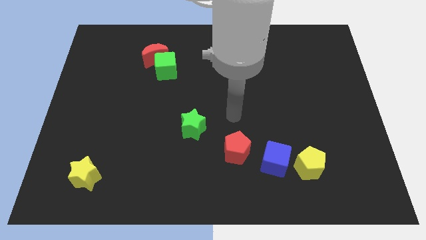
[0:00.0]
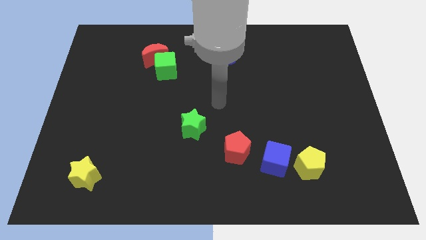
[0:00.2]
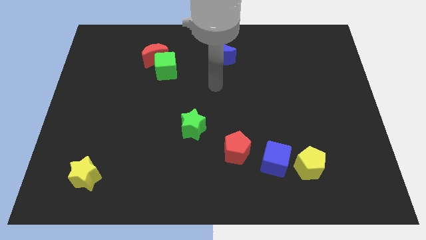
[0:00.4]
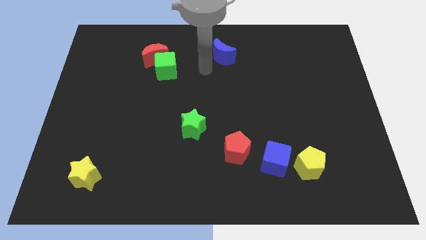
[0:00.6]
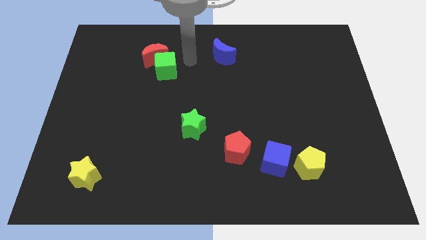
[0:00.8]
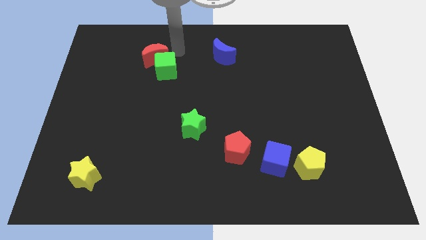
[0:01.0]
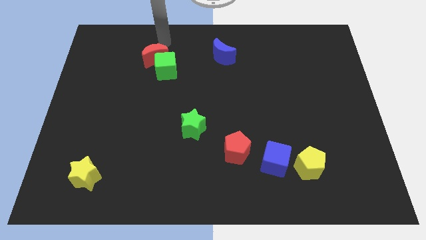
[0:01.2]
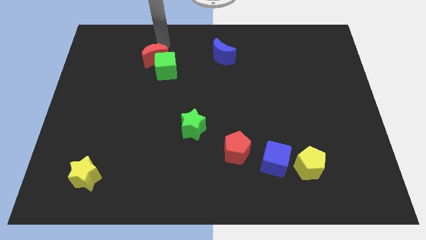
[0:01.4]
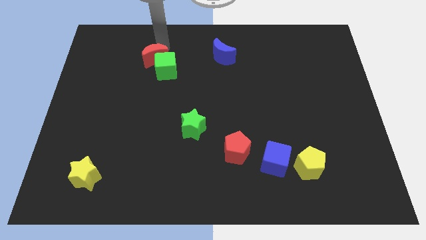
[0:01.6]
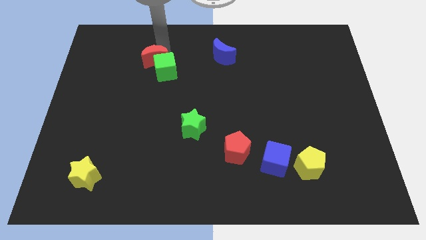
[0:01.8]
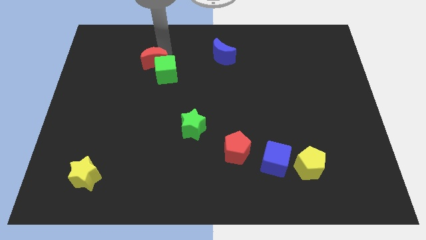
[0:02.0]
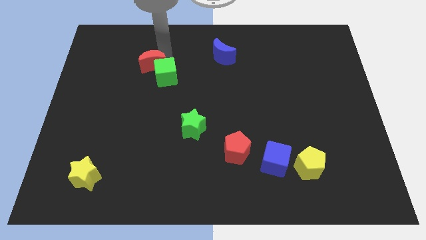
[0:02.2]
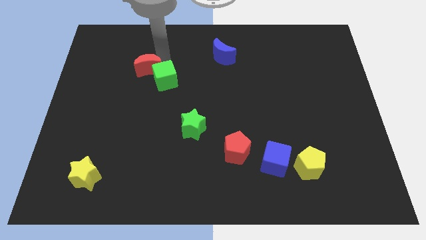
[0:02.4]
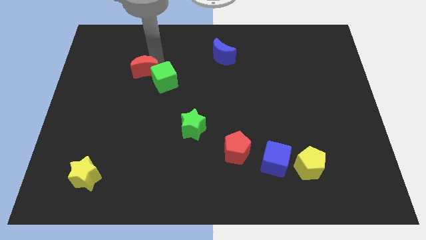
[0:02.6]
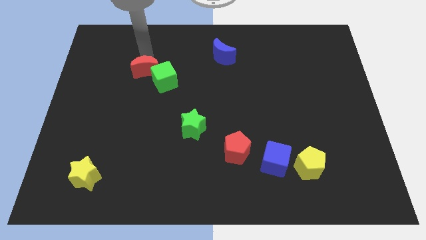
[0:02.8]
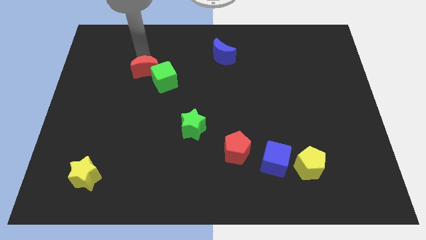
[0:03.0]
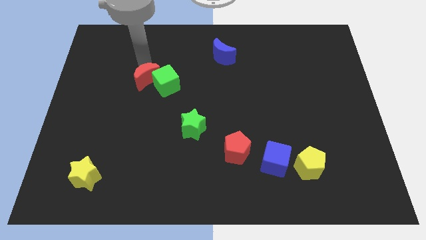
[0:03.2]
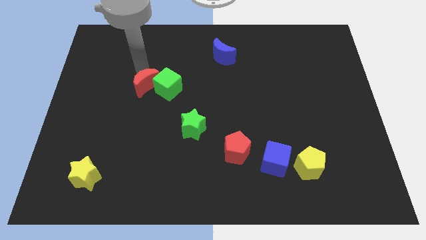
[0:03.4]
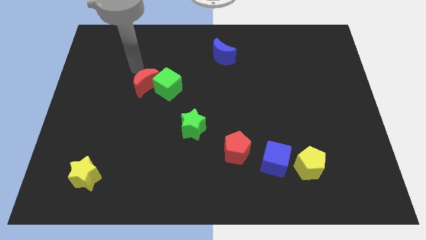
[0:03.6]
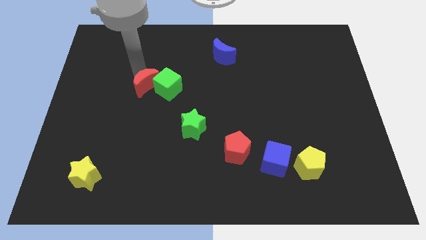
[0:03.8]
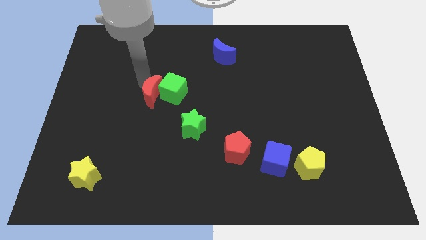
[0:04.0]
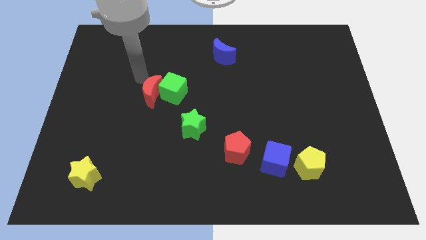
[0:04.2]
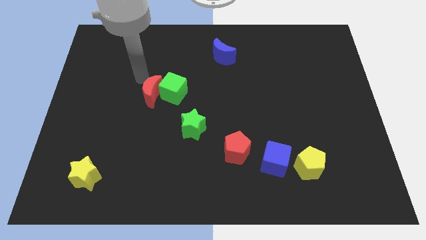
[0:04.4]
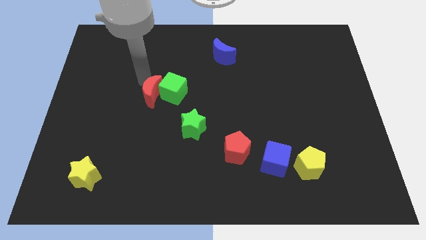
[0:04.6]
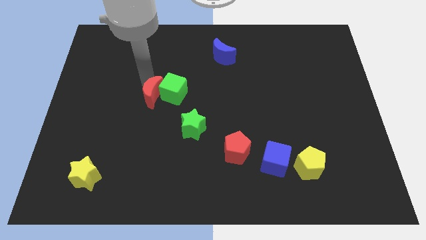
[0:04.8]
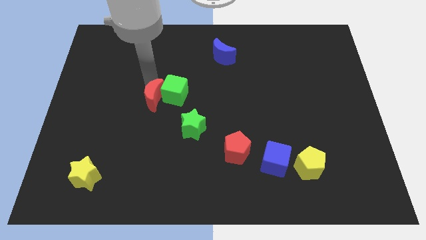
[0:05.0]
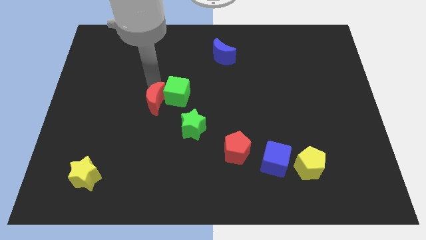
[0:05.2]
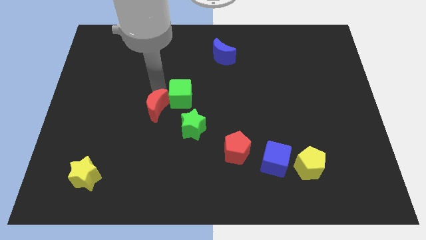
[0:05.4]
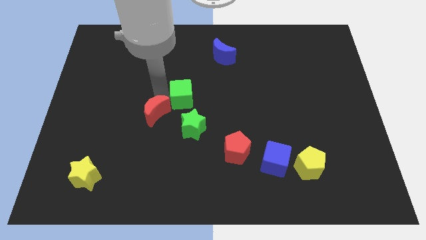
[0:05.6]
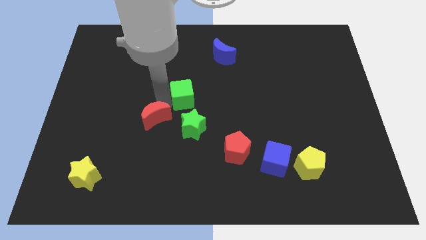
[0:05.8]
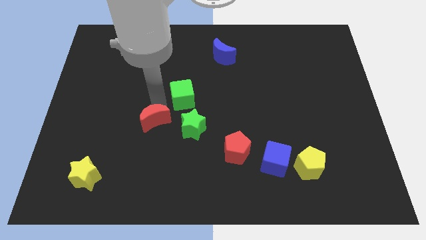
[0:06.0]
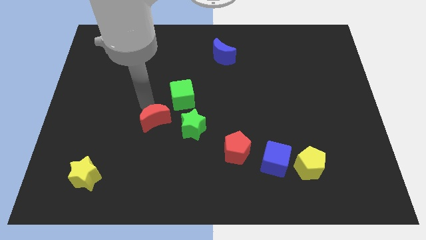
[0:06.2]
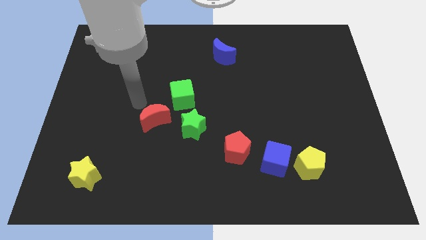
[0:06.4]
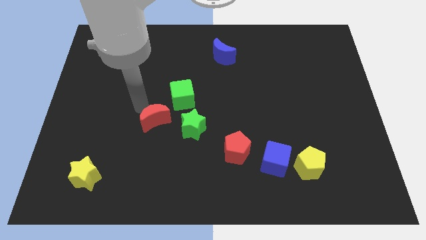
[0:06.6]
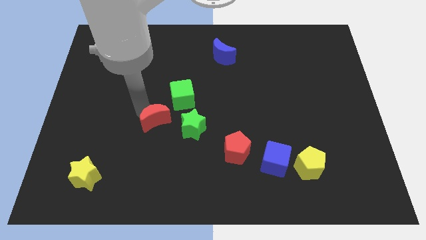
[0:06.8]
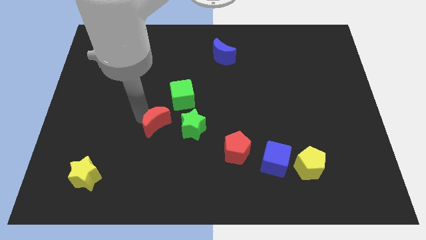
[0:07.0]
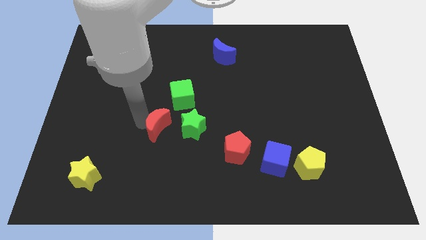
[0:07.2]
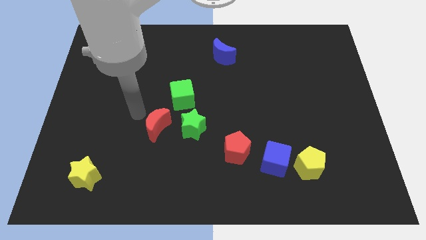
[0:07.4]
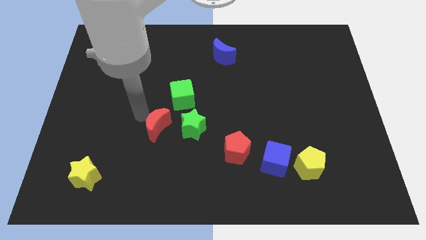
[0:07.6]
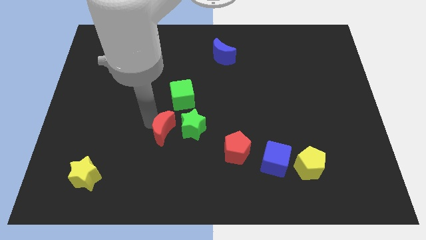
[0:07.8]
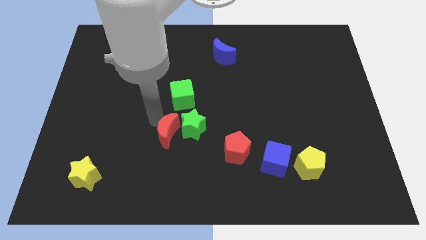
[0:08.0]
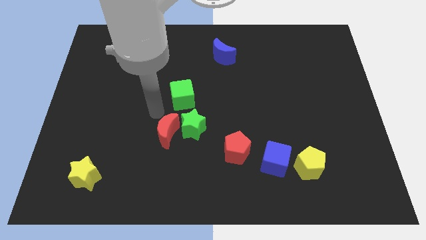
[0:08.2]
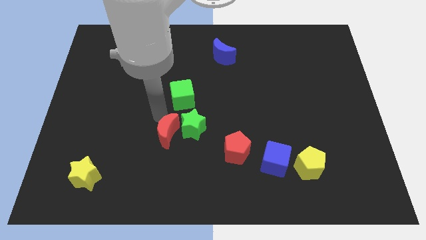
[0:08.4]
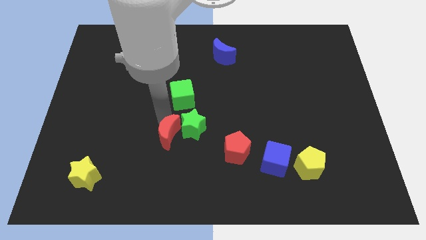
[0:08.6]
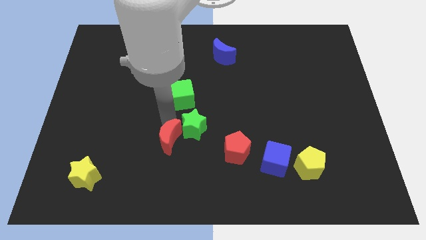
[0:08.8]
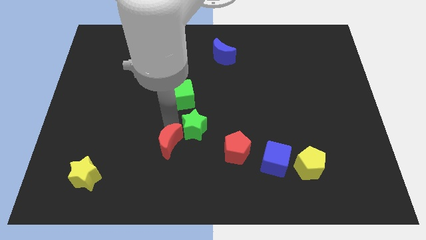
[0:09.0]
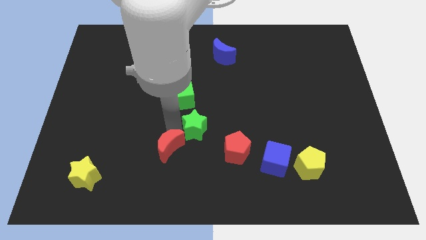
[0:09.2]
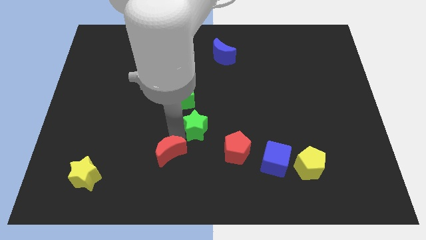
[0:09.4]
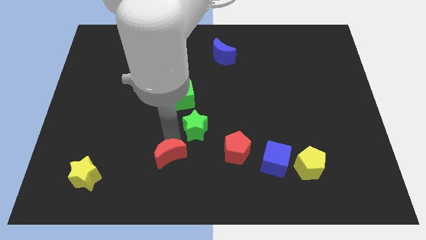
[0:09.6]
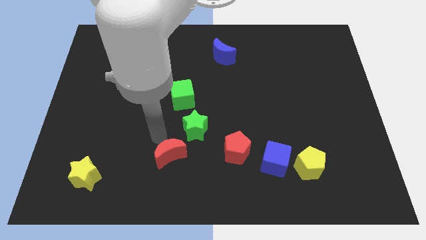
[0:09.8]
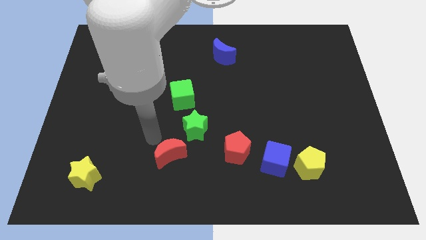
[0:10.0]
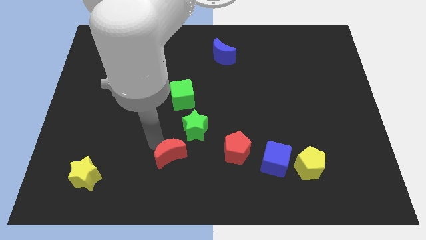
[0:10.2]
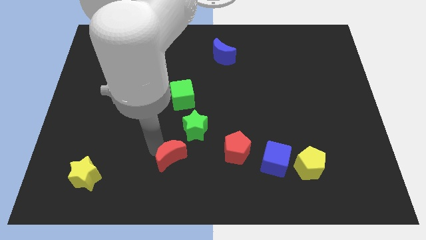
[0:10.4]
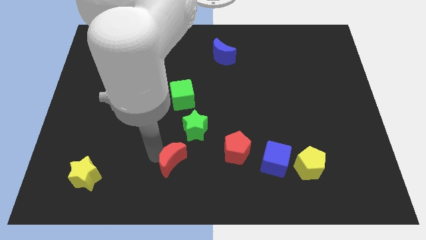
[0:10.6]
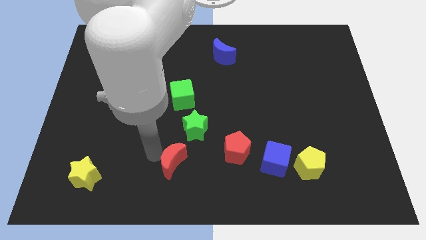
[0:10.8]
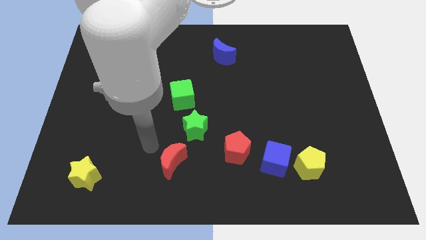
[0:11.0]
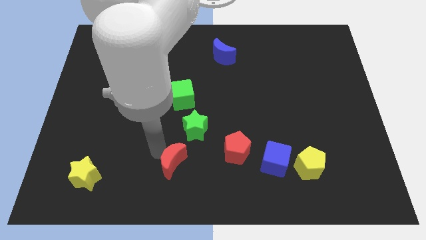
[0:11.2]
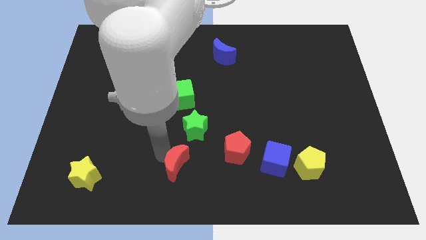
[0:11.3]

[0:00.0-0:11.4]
push the red moon to the bottom
